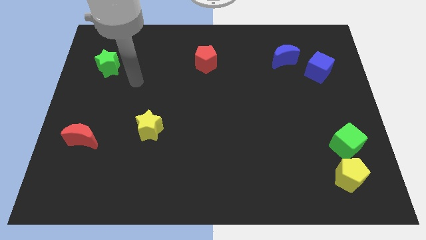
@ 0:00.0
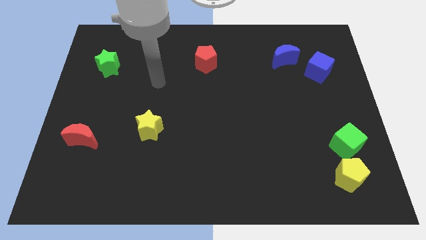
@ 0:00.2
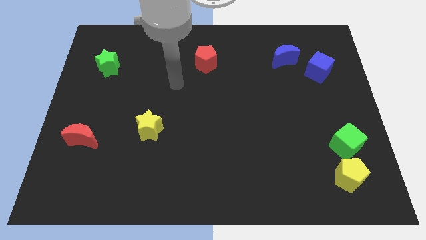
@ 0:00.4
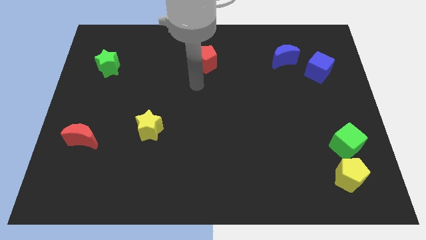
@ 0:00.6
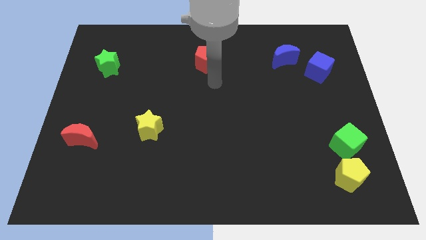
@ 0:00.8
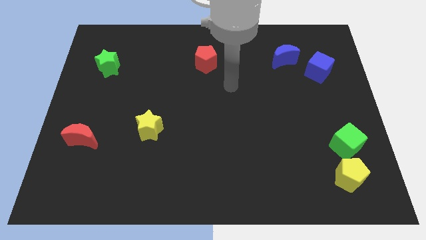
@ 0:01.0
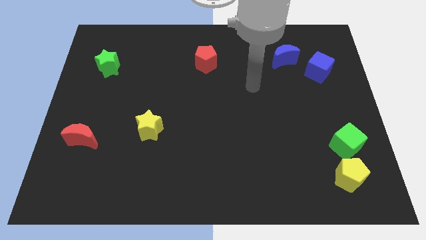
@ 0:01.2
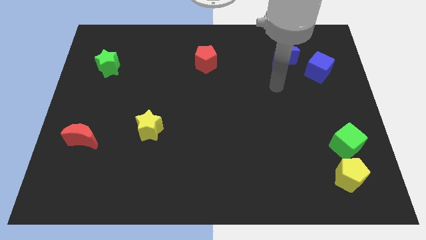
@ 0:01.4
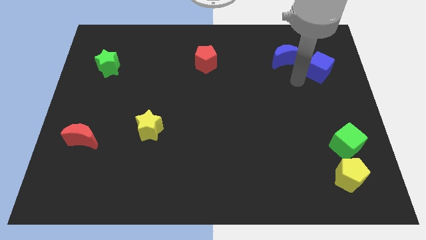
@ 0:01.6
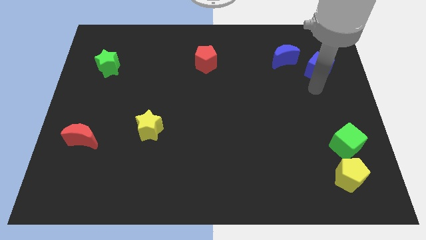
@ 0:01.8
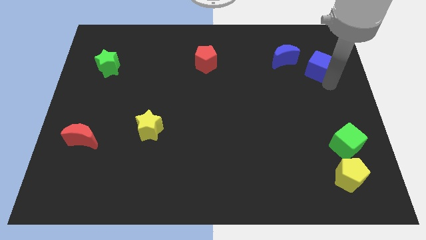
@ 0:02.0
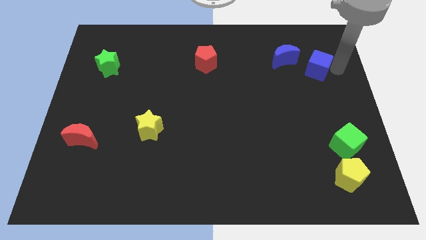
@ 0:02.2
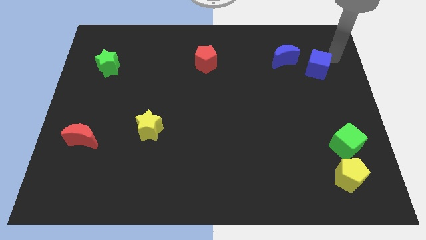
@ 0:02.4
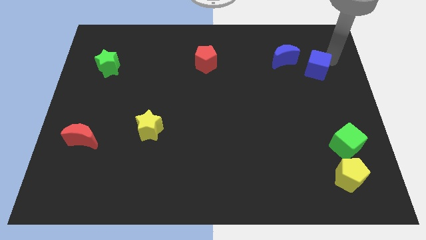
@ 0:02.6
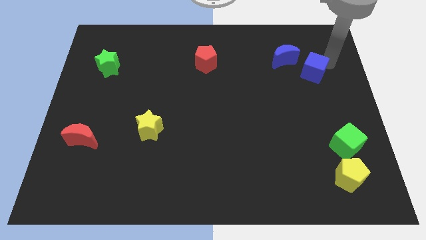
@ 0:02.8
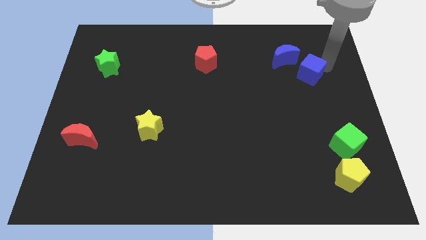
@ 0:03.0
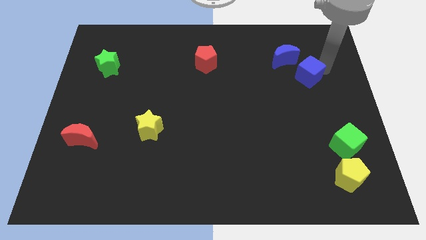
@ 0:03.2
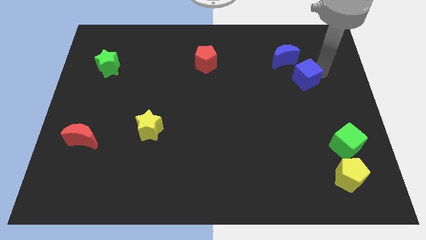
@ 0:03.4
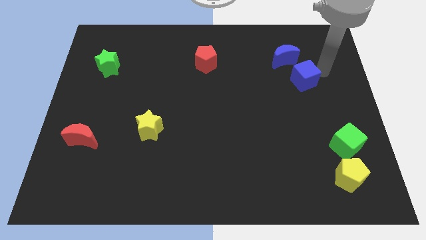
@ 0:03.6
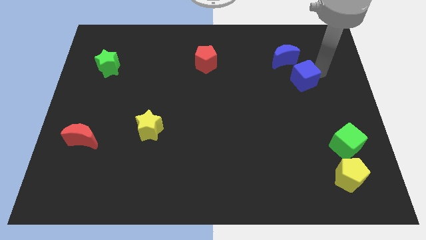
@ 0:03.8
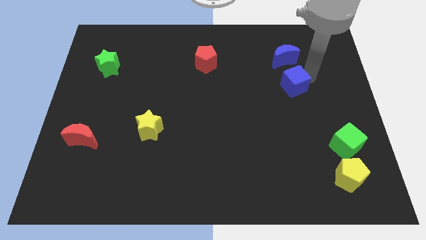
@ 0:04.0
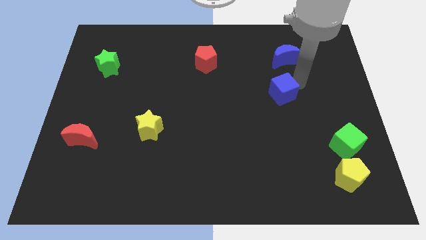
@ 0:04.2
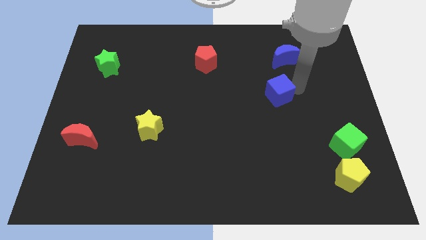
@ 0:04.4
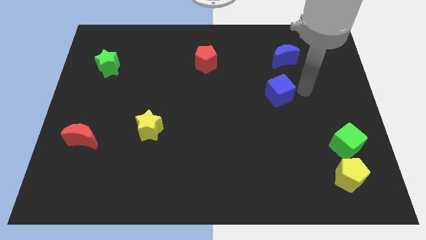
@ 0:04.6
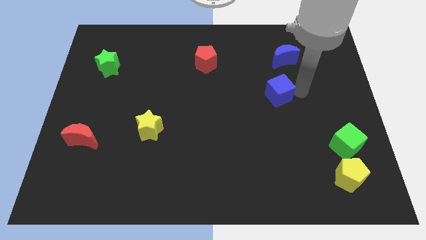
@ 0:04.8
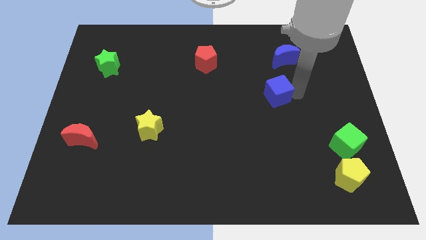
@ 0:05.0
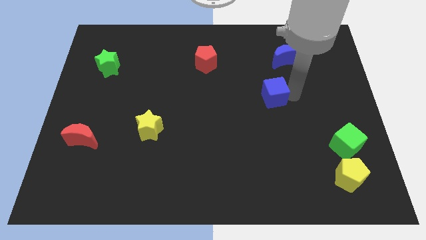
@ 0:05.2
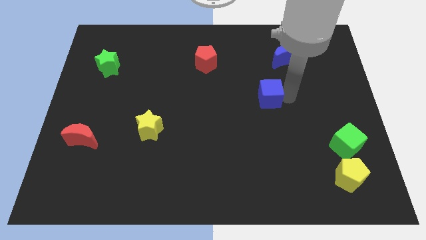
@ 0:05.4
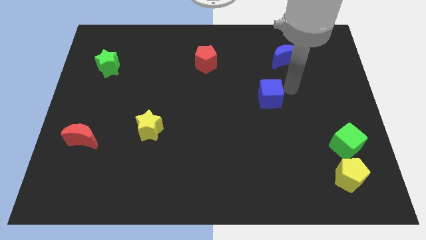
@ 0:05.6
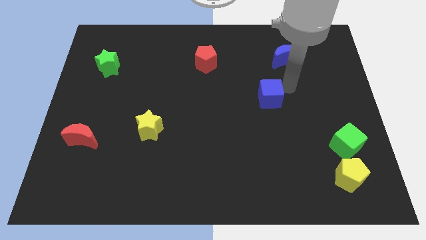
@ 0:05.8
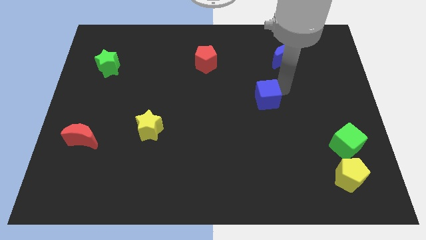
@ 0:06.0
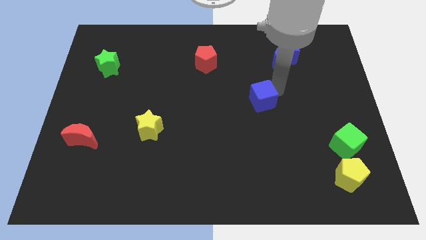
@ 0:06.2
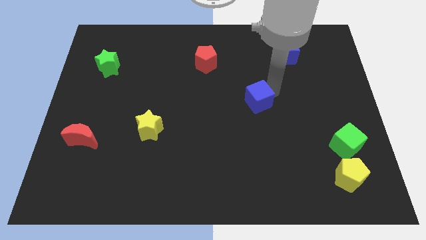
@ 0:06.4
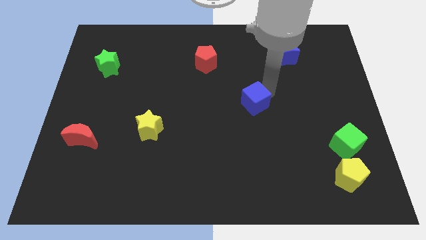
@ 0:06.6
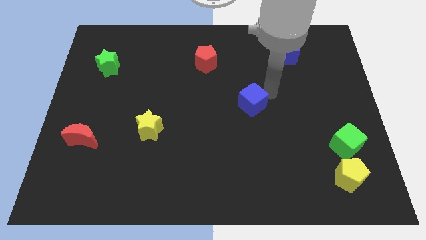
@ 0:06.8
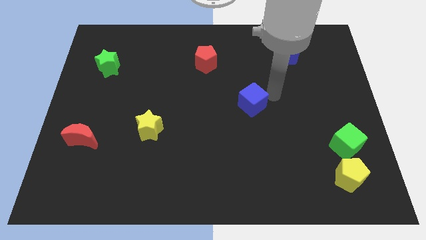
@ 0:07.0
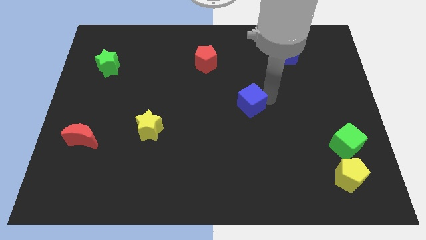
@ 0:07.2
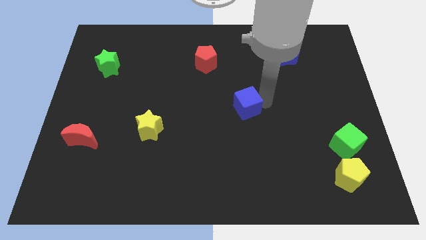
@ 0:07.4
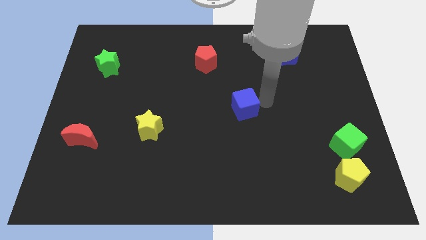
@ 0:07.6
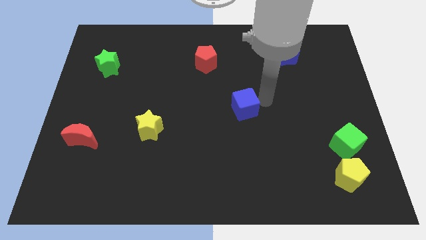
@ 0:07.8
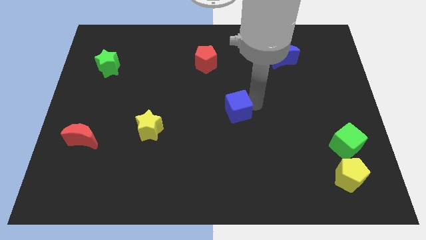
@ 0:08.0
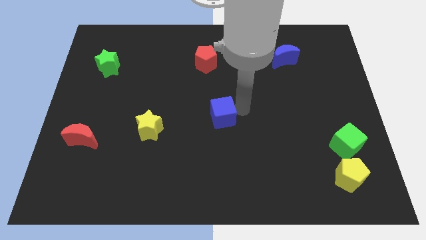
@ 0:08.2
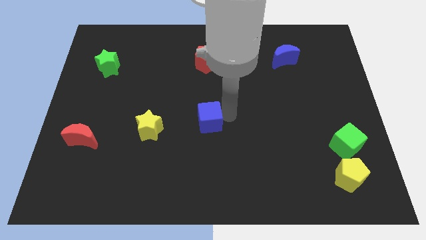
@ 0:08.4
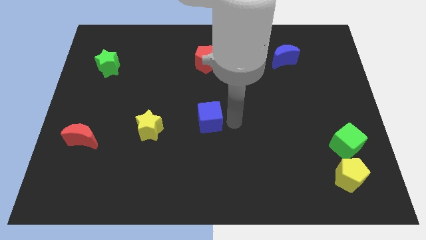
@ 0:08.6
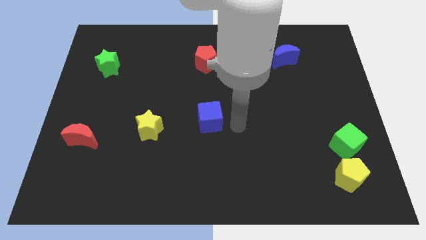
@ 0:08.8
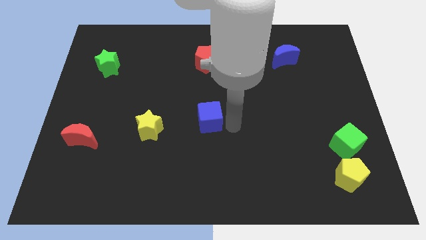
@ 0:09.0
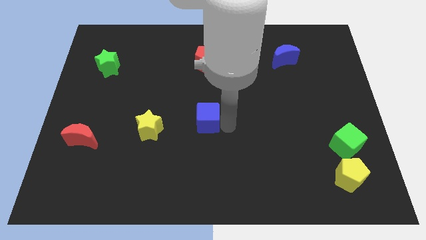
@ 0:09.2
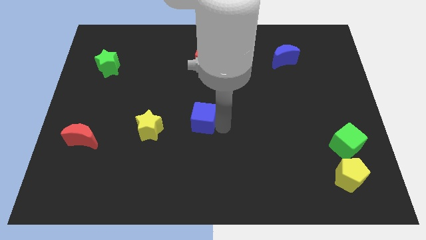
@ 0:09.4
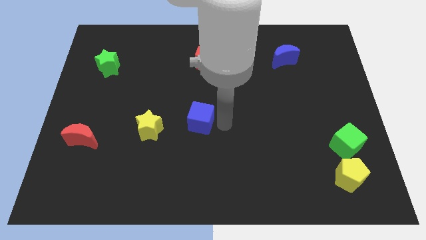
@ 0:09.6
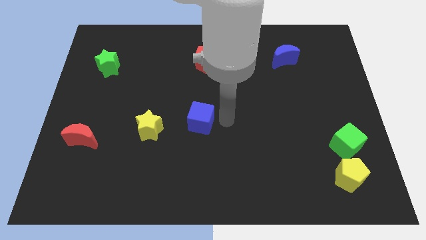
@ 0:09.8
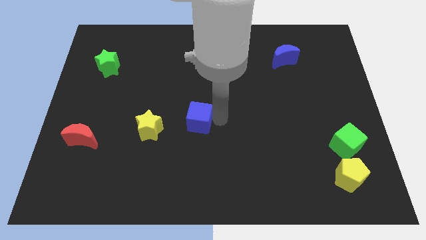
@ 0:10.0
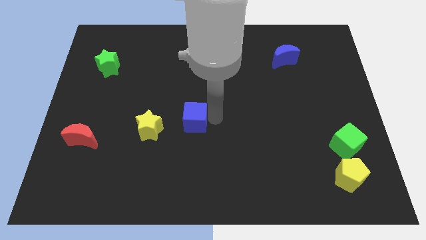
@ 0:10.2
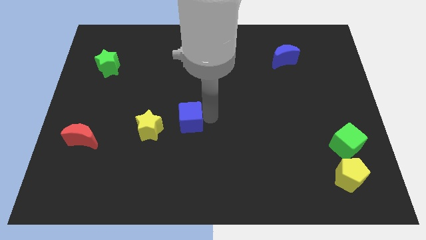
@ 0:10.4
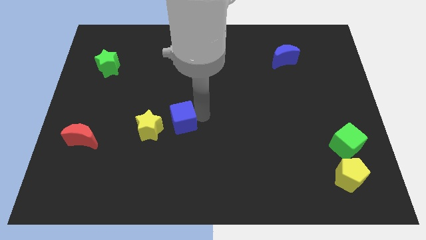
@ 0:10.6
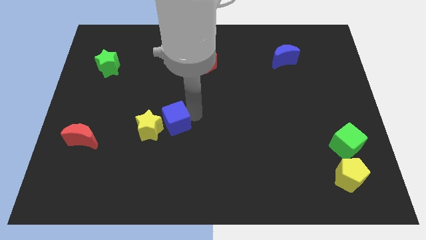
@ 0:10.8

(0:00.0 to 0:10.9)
put the blue cube next to the yellow star

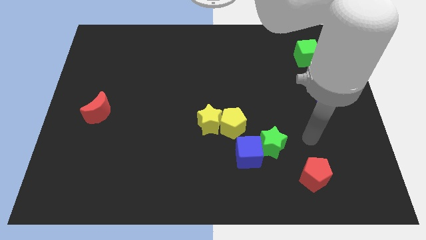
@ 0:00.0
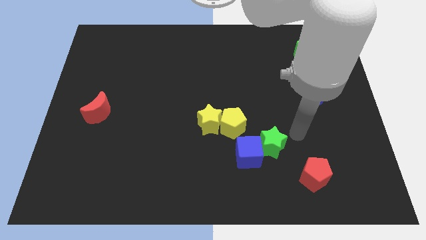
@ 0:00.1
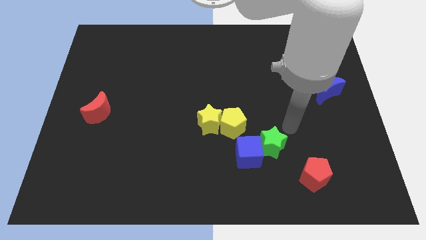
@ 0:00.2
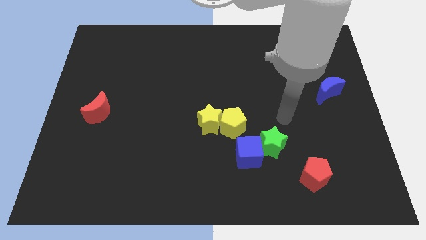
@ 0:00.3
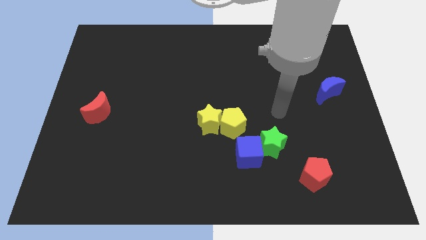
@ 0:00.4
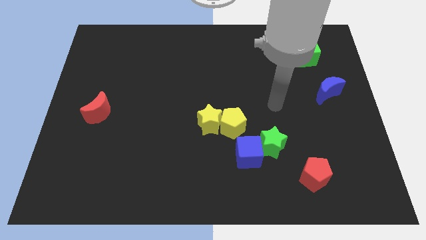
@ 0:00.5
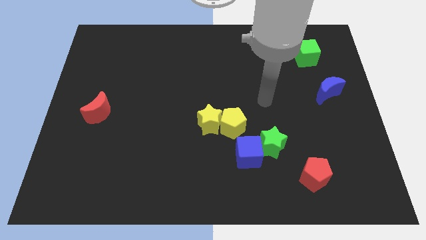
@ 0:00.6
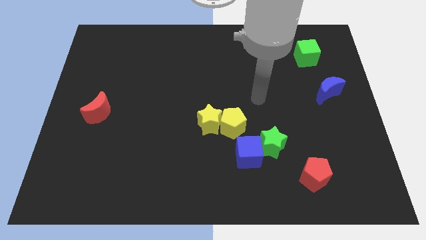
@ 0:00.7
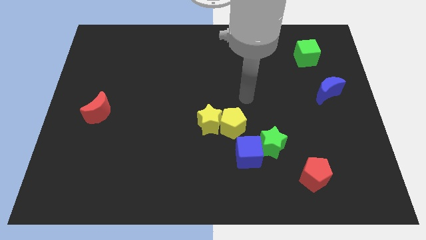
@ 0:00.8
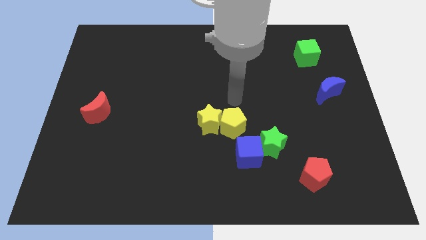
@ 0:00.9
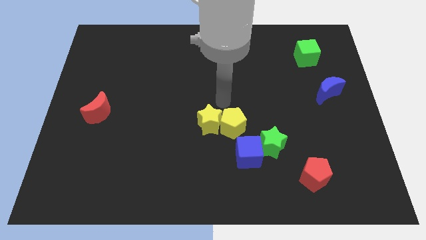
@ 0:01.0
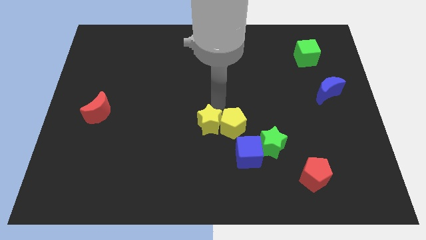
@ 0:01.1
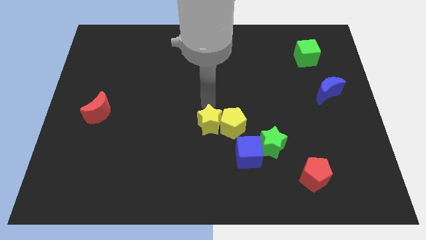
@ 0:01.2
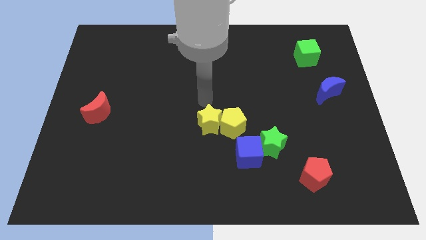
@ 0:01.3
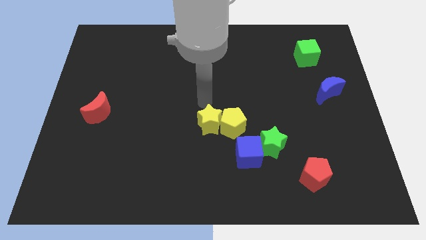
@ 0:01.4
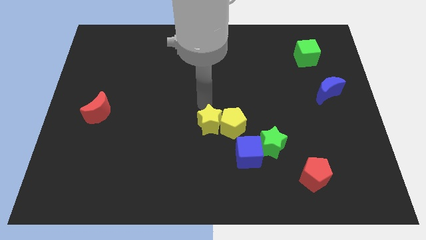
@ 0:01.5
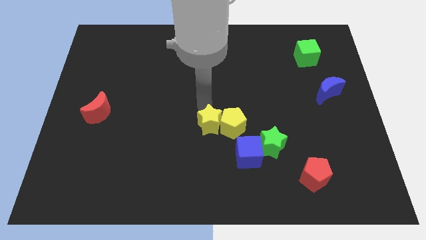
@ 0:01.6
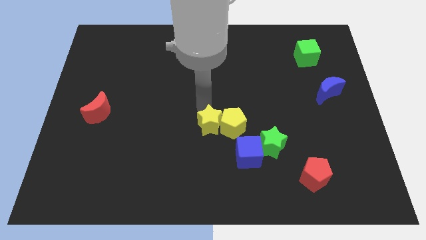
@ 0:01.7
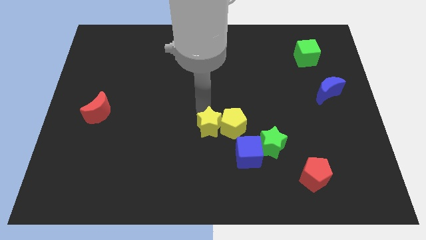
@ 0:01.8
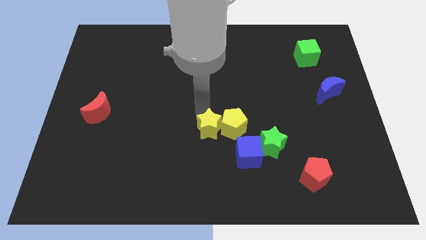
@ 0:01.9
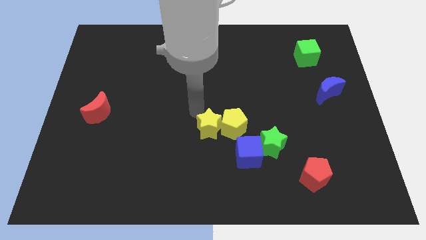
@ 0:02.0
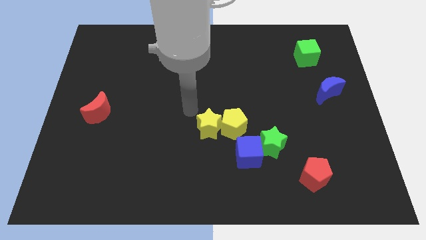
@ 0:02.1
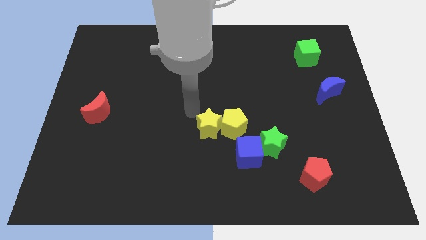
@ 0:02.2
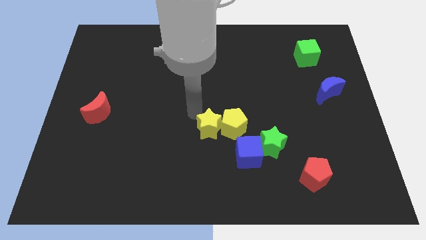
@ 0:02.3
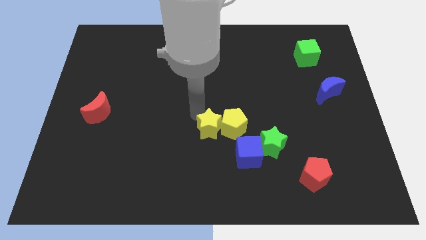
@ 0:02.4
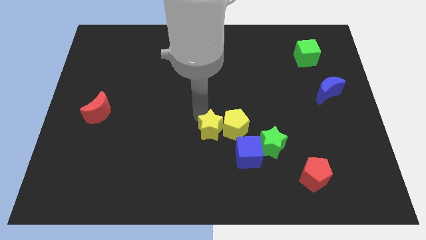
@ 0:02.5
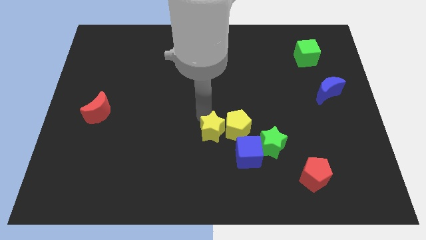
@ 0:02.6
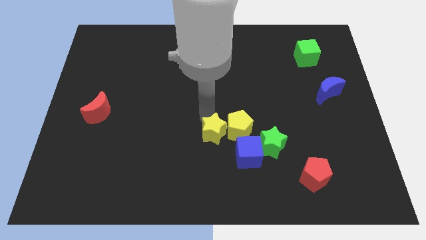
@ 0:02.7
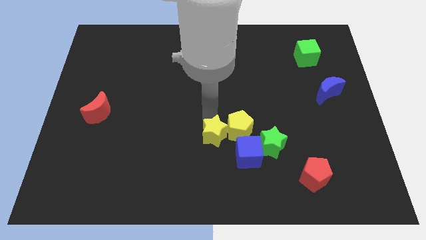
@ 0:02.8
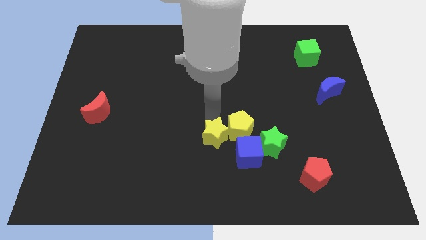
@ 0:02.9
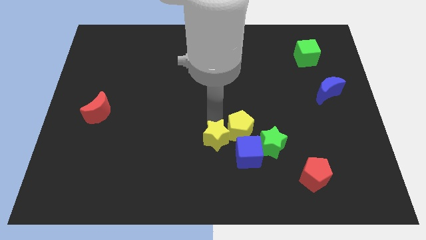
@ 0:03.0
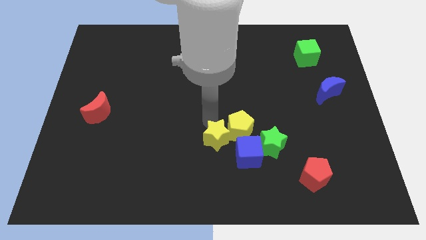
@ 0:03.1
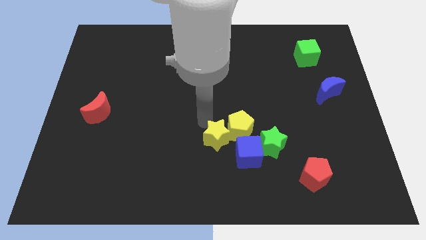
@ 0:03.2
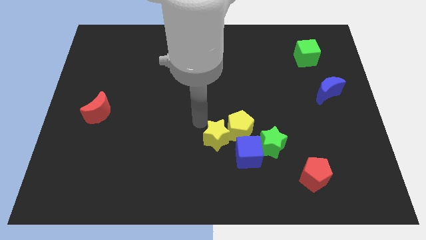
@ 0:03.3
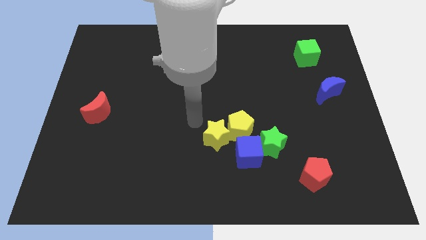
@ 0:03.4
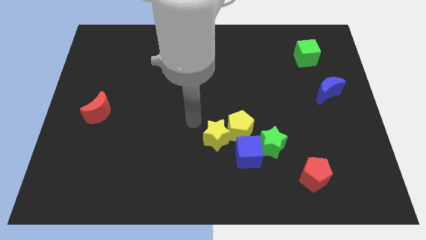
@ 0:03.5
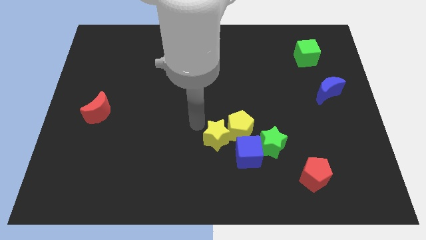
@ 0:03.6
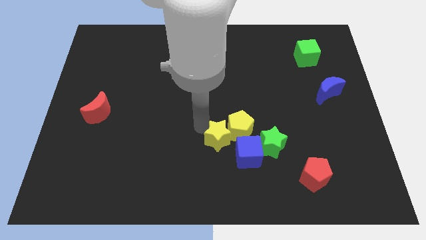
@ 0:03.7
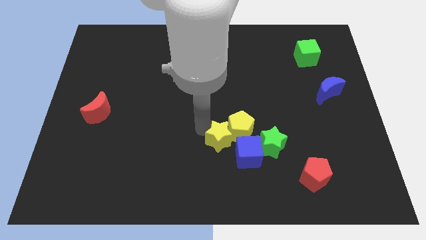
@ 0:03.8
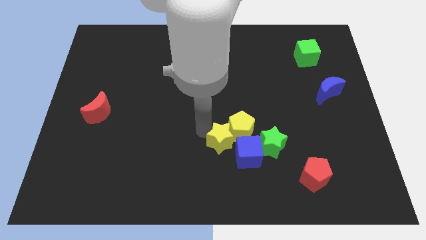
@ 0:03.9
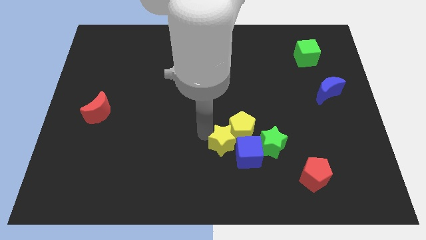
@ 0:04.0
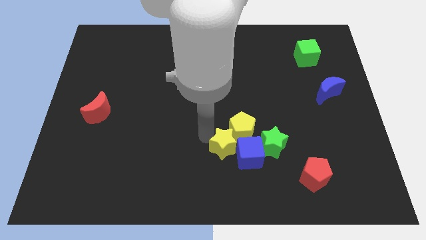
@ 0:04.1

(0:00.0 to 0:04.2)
put the yellow star close to the blue cube
